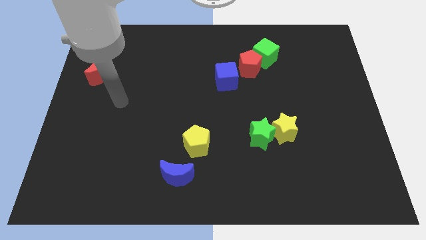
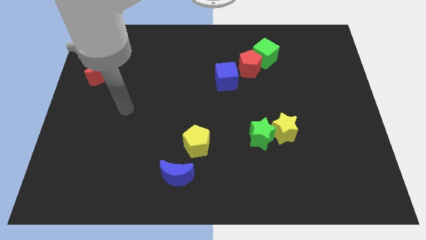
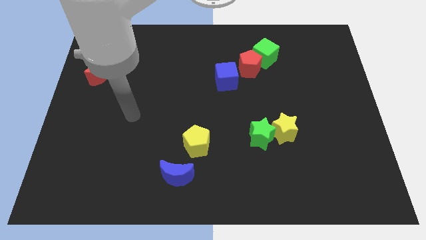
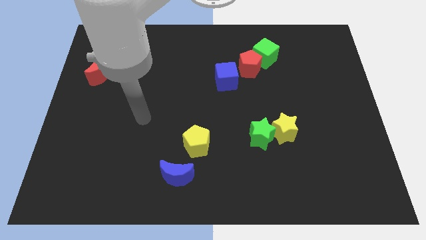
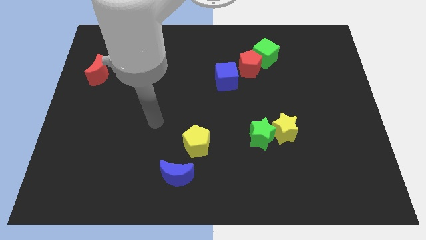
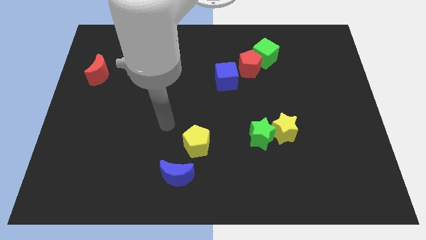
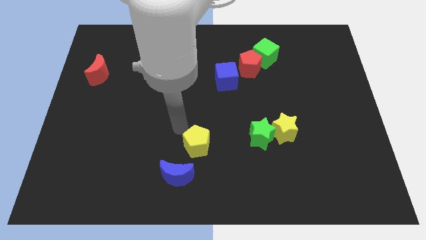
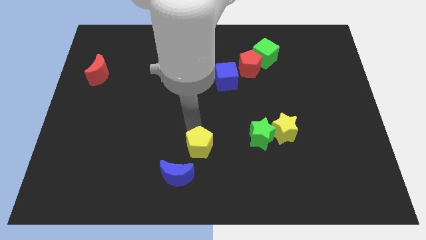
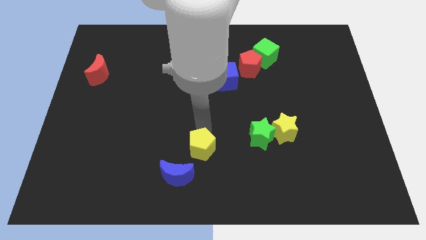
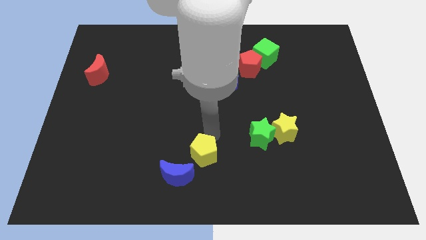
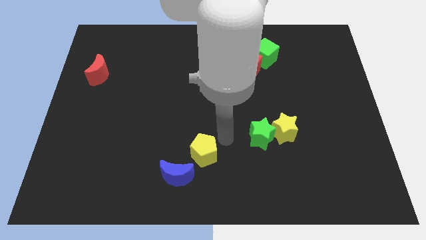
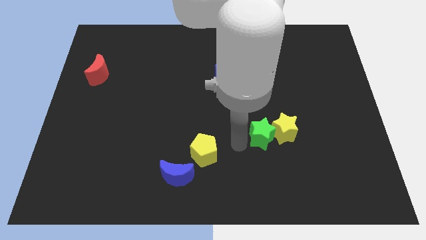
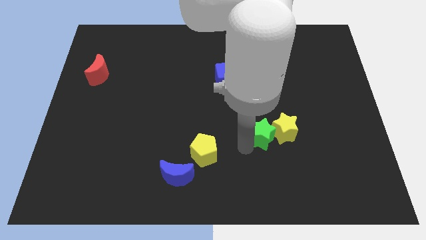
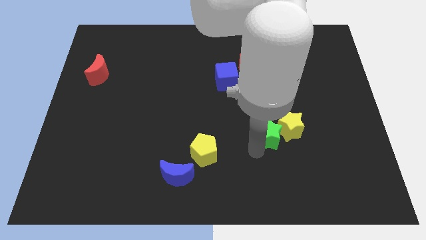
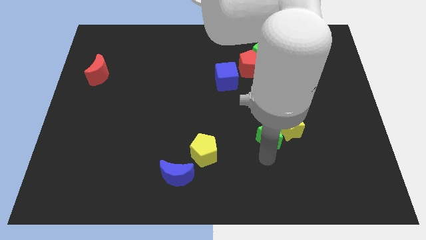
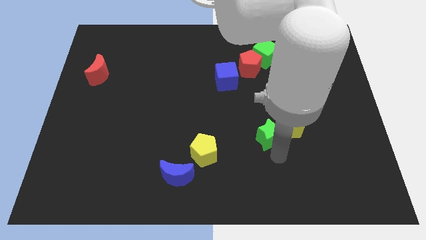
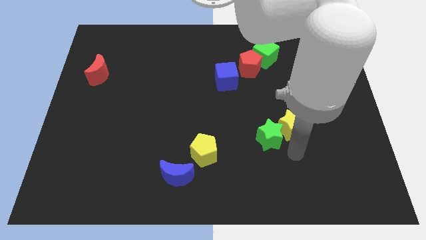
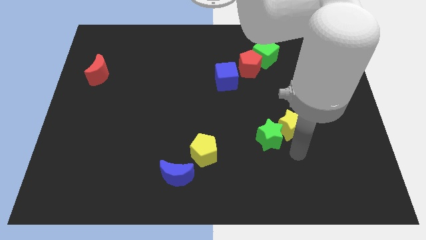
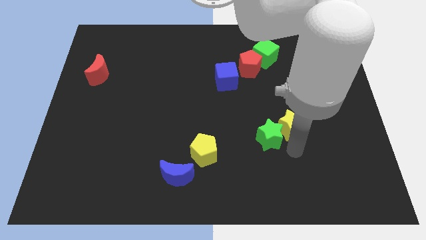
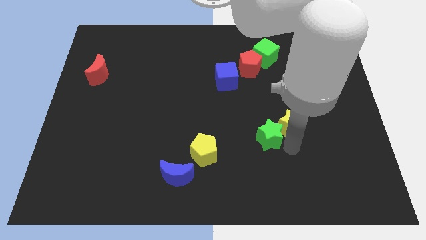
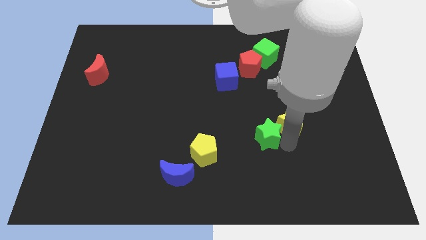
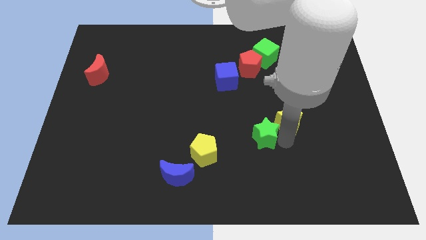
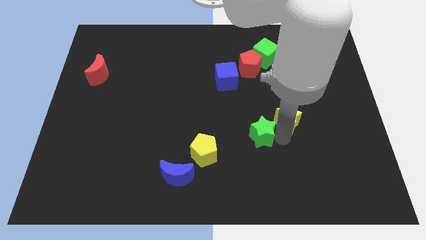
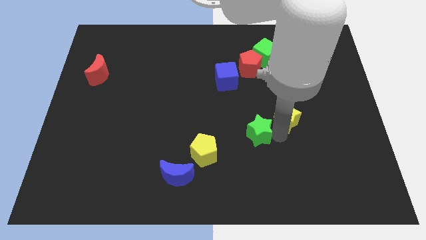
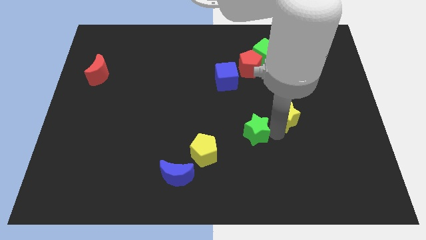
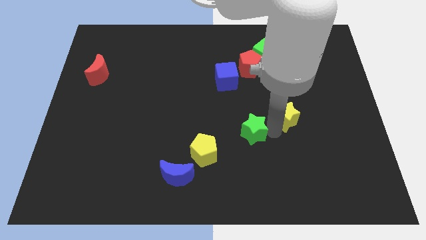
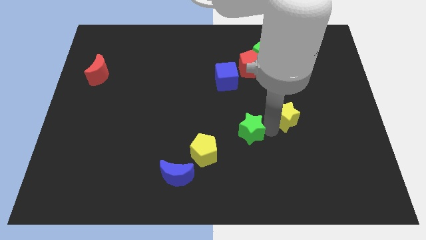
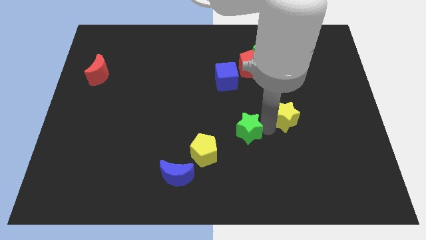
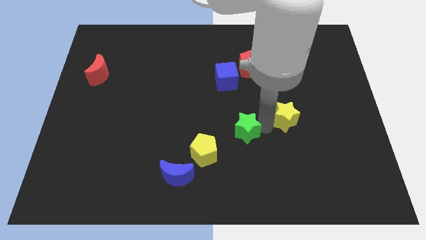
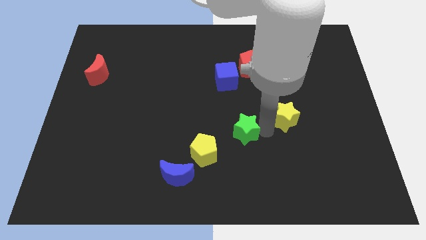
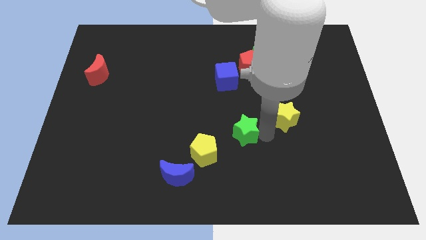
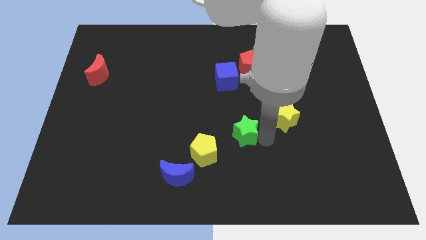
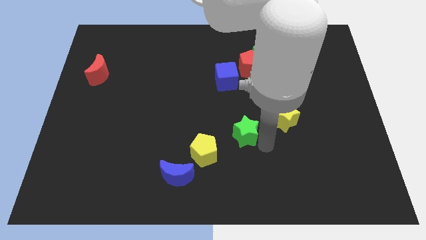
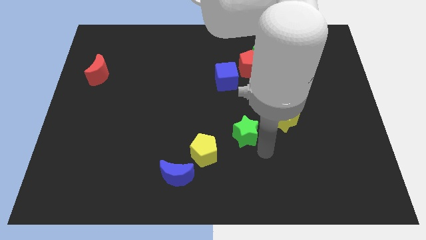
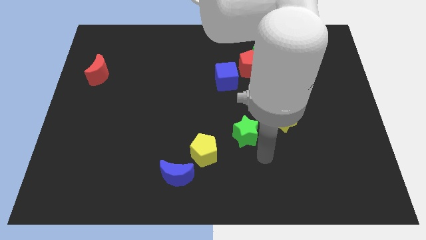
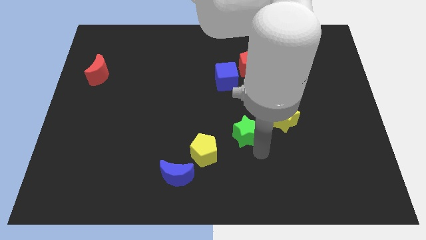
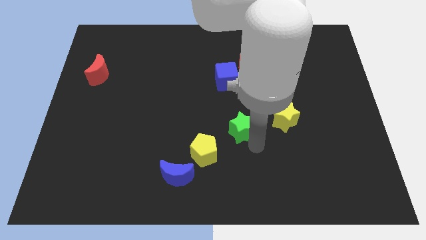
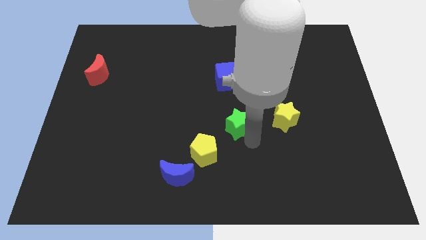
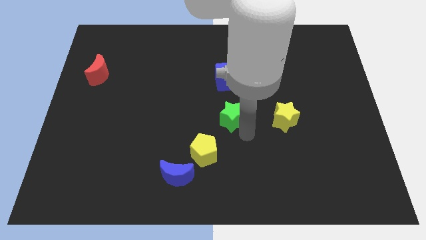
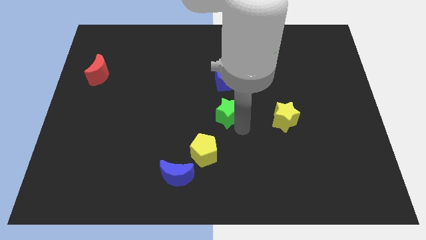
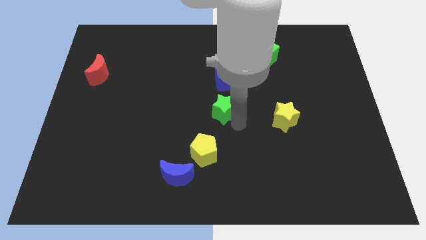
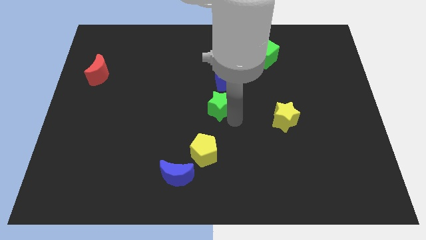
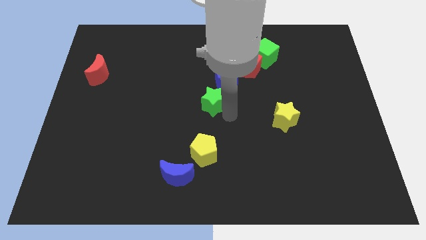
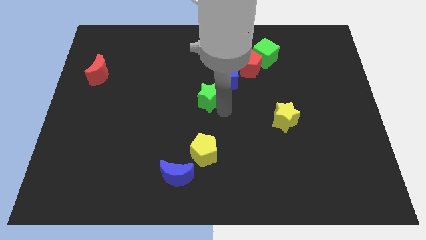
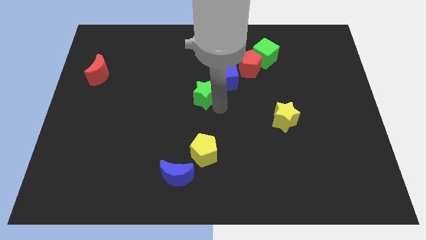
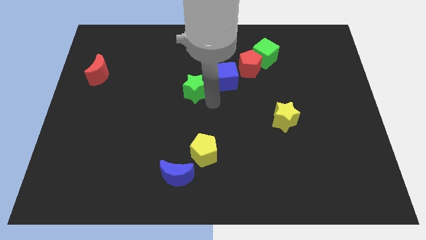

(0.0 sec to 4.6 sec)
slide the green star up and then to the left

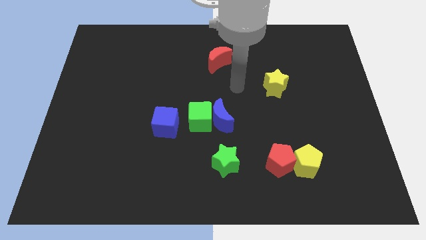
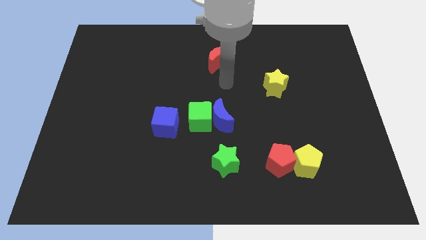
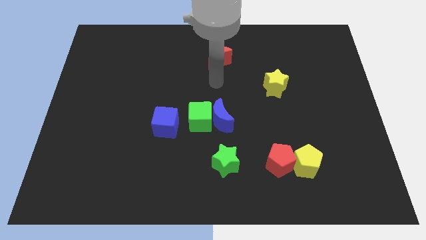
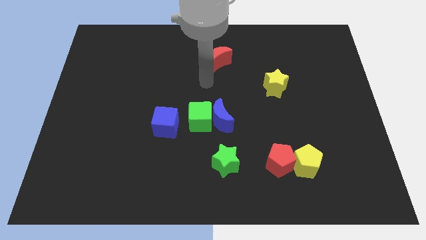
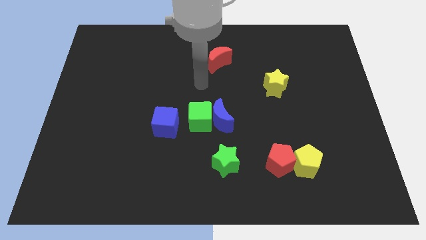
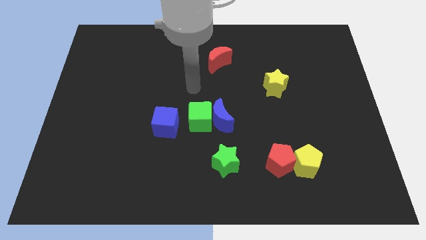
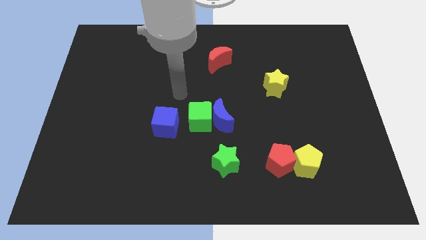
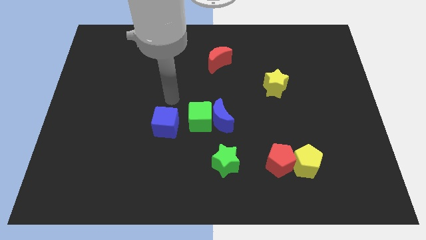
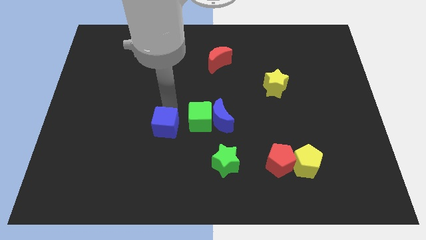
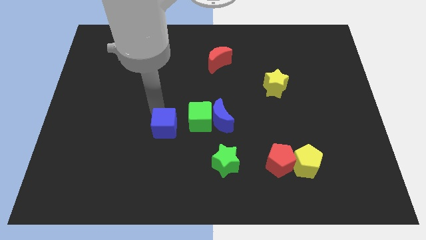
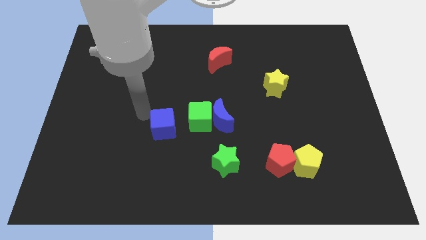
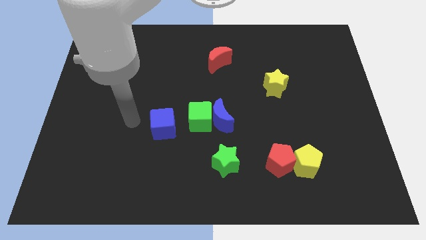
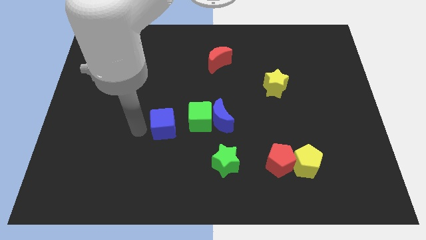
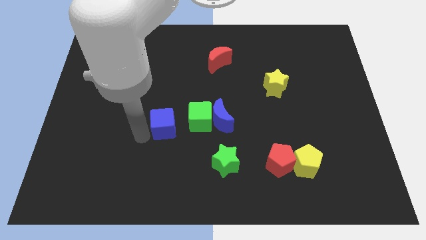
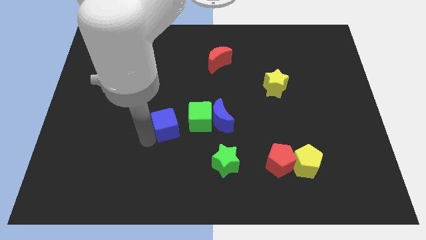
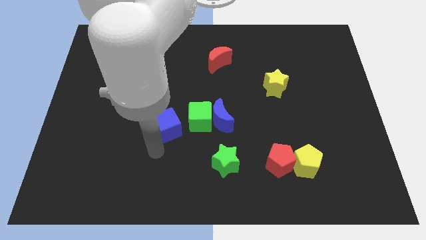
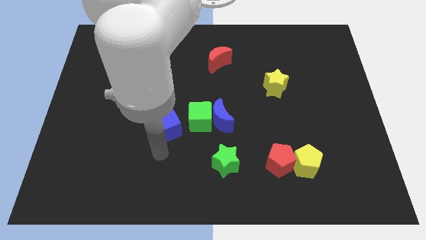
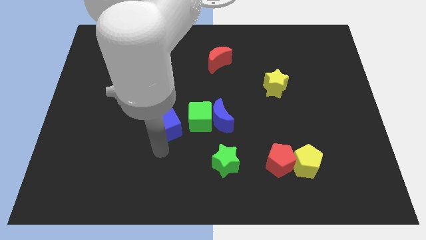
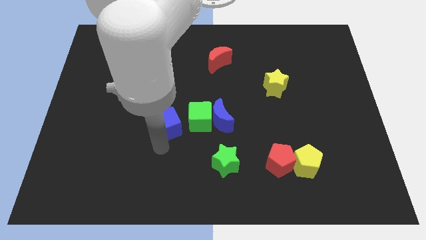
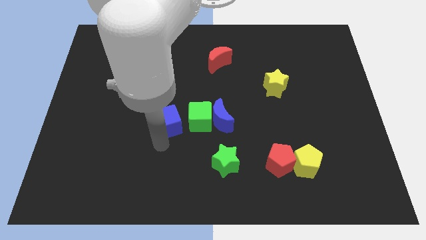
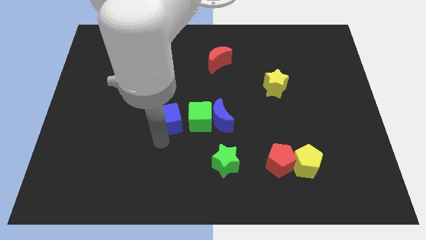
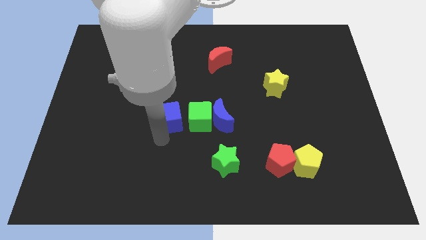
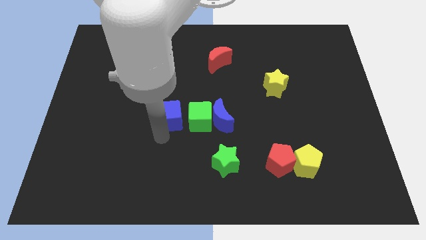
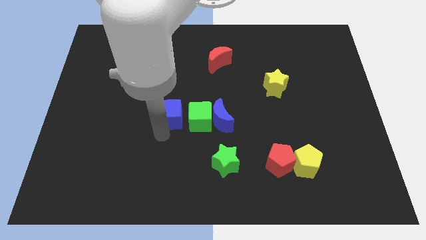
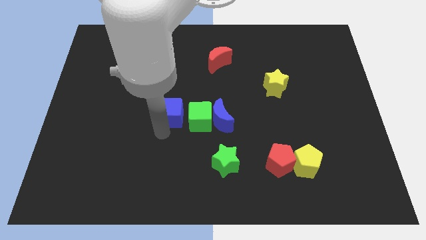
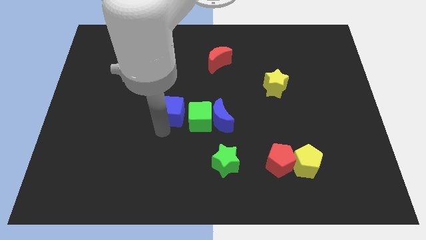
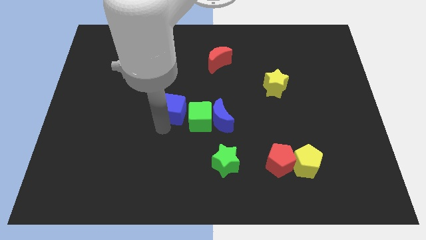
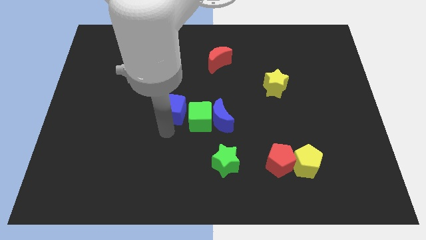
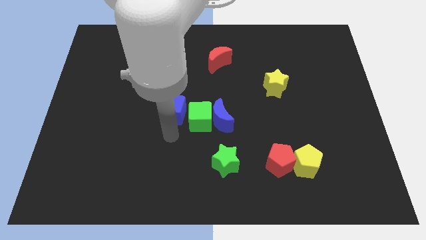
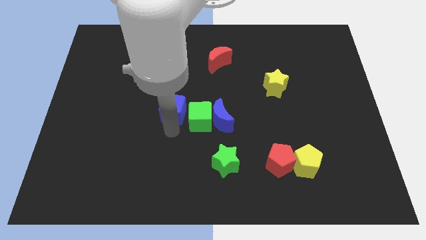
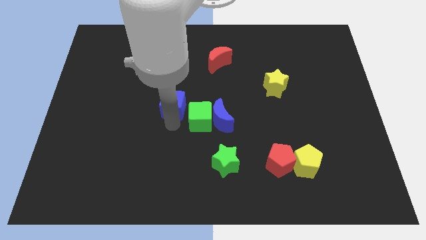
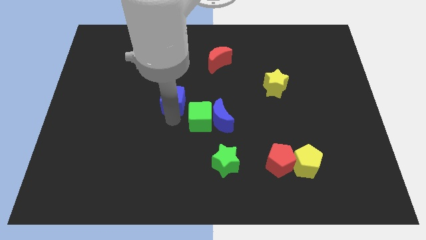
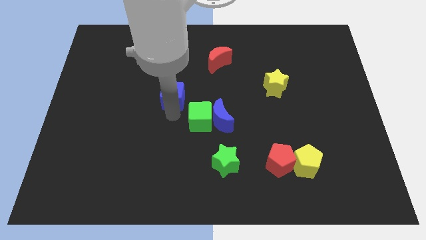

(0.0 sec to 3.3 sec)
slightly slide the blue cube upwards

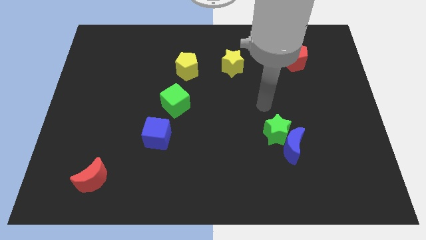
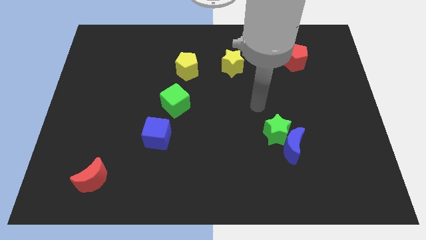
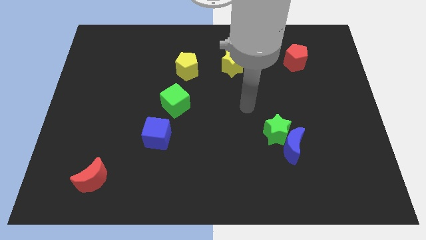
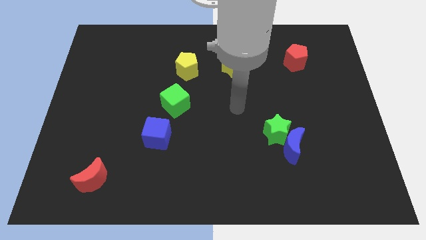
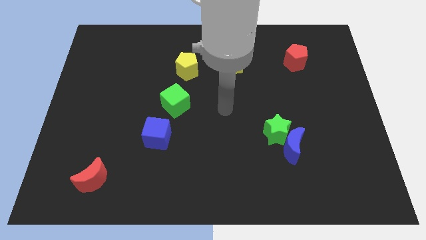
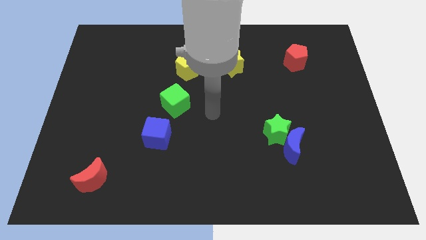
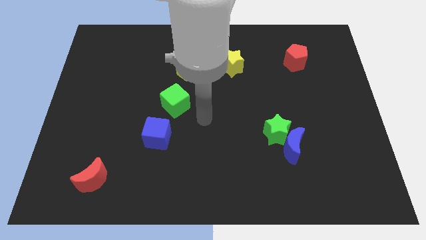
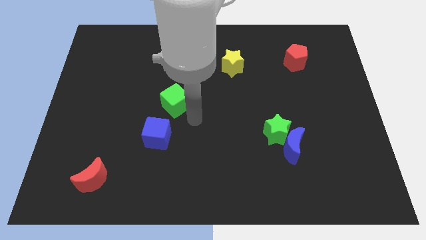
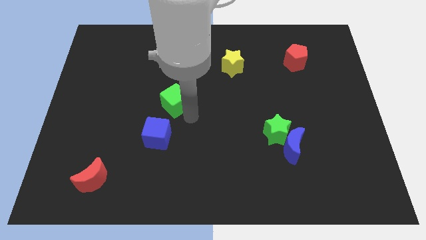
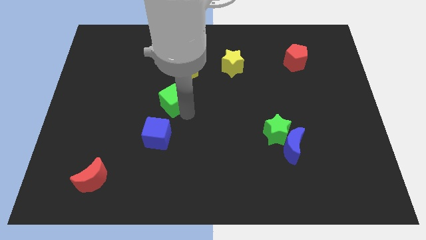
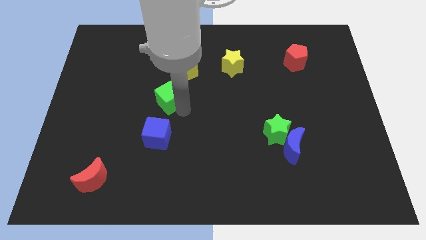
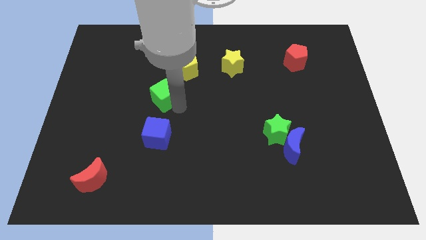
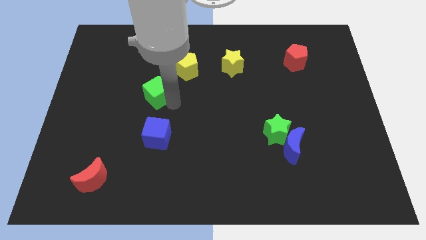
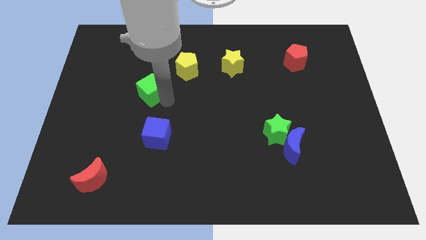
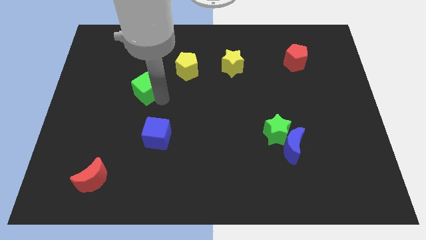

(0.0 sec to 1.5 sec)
slightly slide the green cube up and left diagonally
